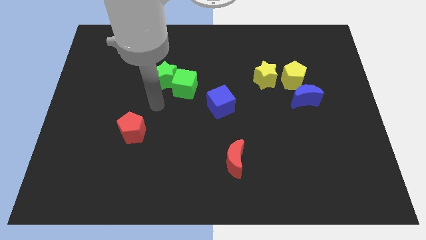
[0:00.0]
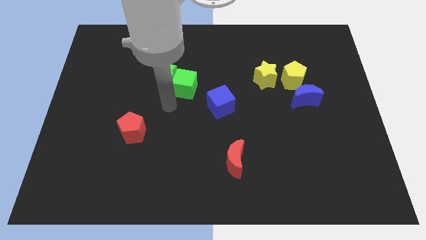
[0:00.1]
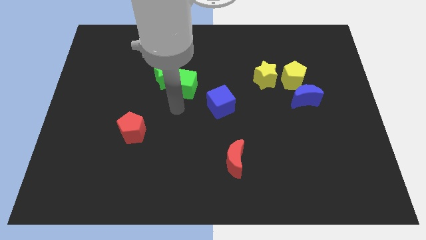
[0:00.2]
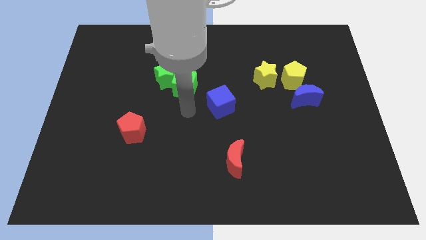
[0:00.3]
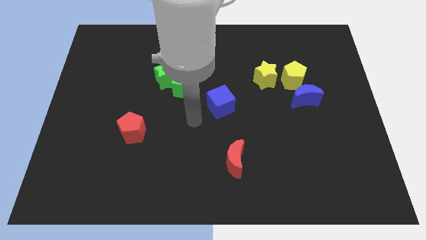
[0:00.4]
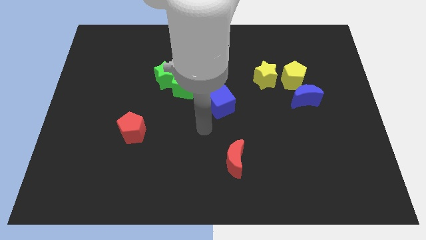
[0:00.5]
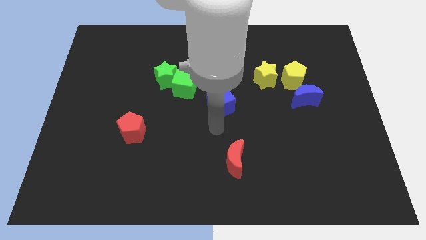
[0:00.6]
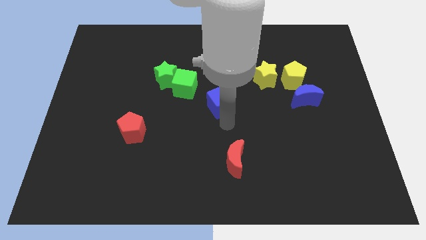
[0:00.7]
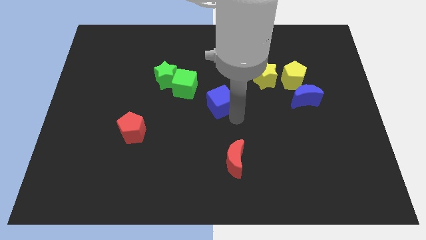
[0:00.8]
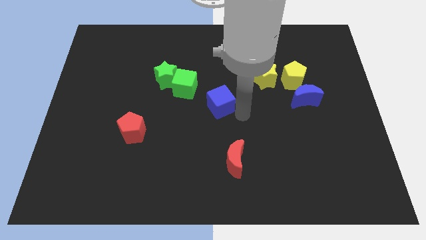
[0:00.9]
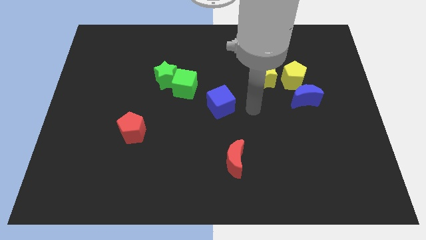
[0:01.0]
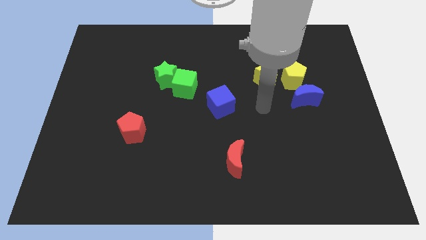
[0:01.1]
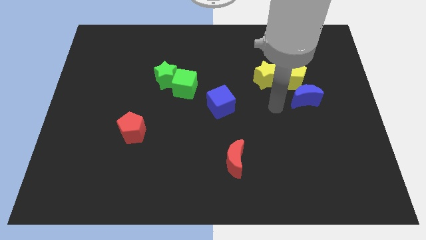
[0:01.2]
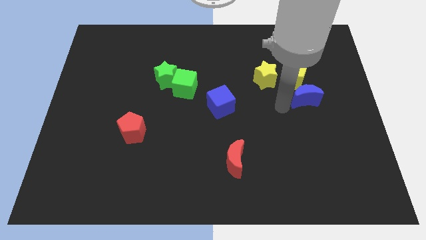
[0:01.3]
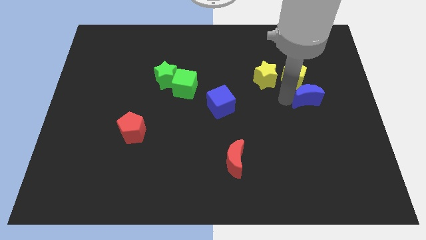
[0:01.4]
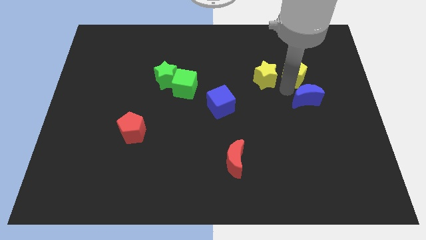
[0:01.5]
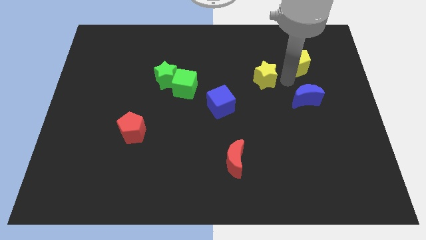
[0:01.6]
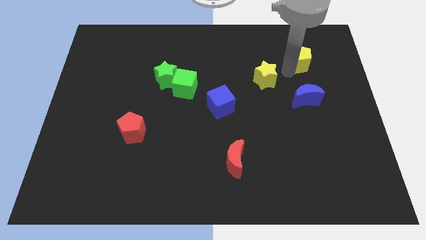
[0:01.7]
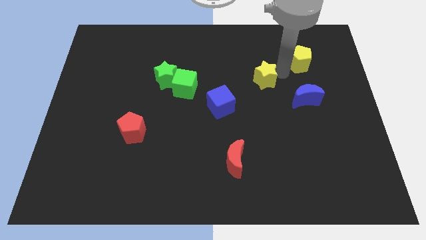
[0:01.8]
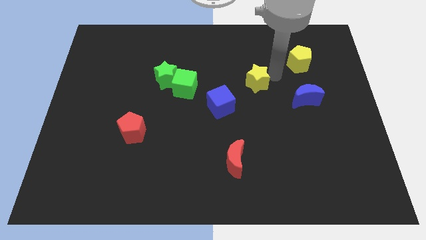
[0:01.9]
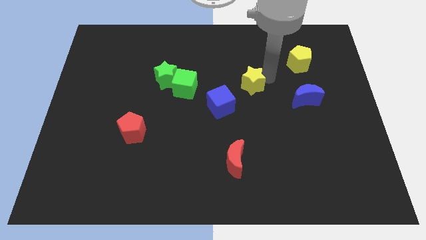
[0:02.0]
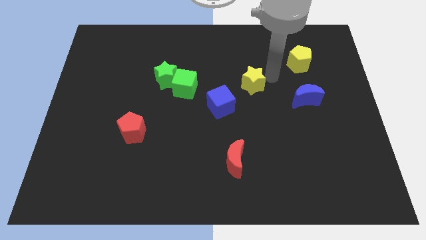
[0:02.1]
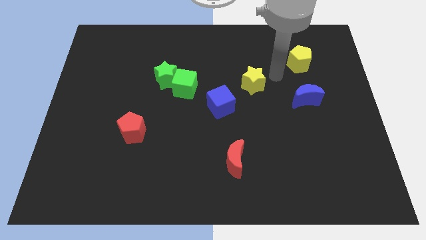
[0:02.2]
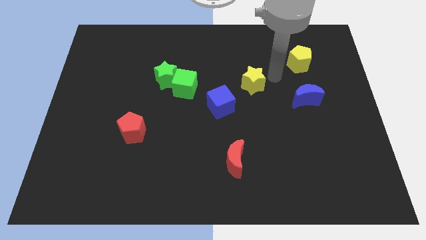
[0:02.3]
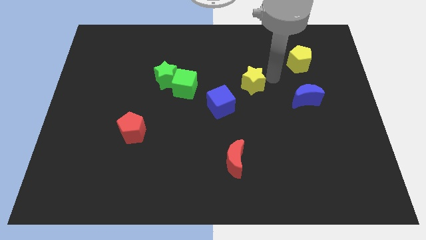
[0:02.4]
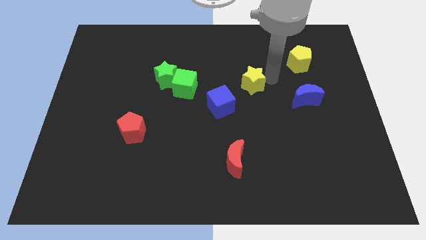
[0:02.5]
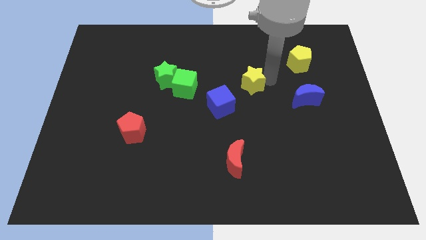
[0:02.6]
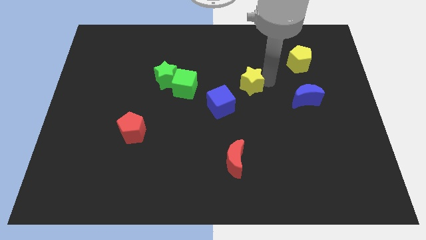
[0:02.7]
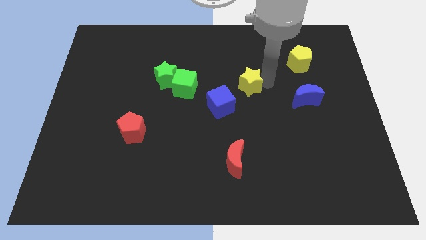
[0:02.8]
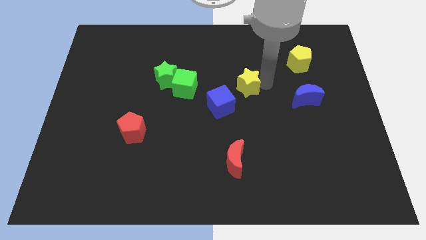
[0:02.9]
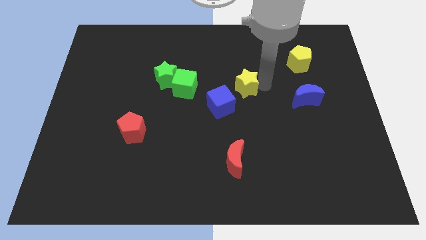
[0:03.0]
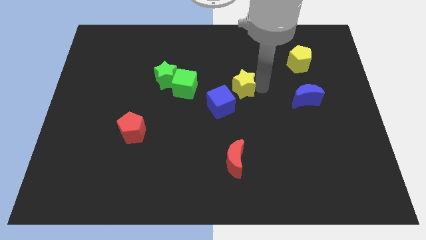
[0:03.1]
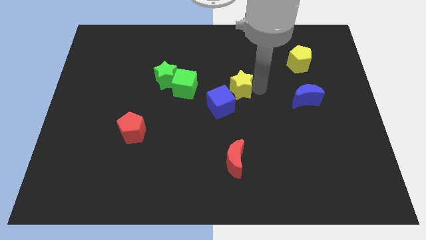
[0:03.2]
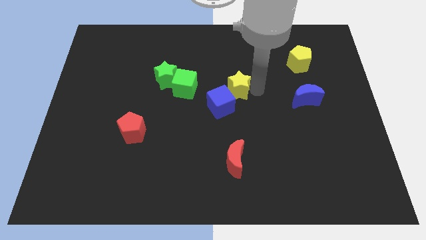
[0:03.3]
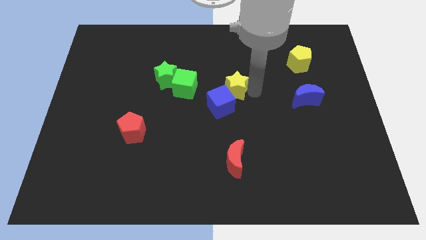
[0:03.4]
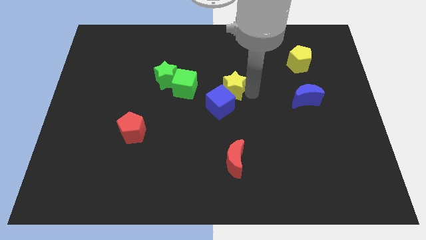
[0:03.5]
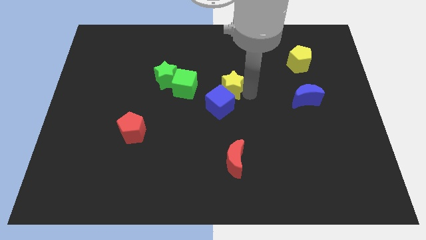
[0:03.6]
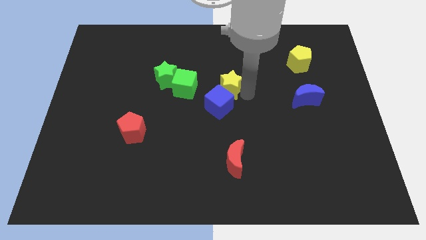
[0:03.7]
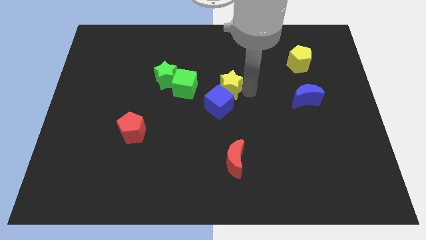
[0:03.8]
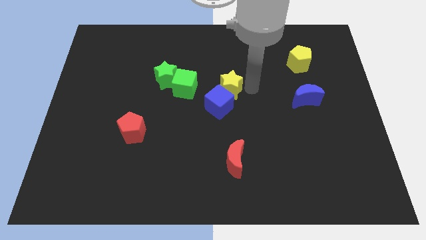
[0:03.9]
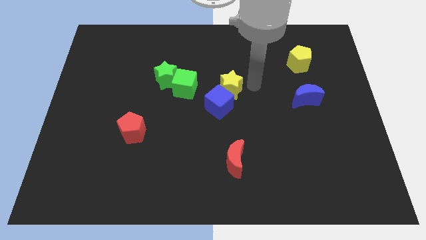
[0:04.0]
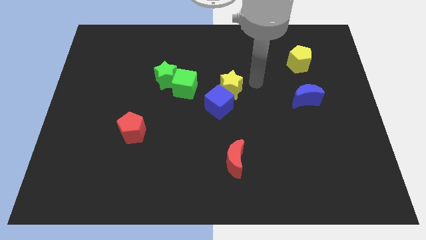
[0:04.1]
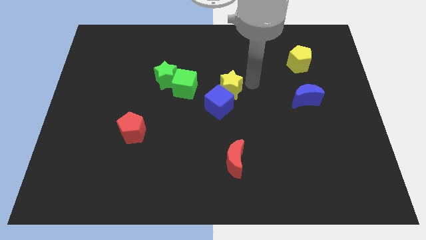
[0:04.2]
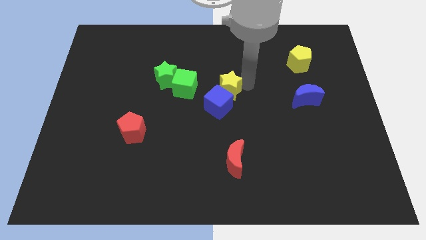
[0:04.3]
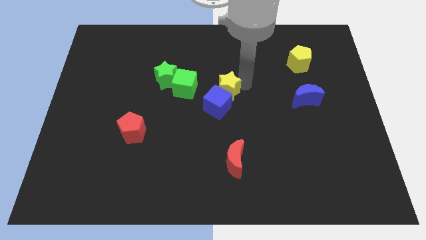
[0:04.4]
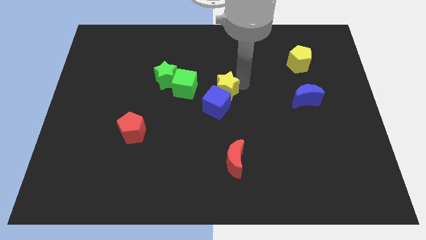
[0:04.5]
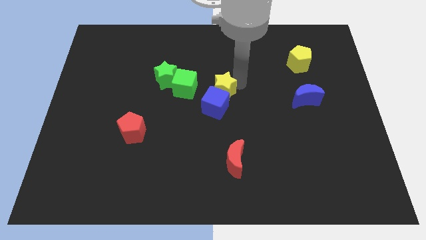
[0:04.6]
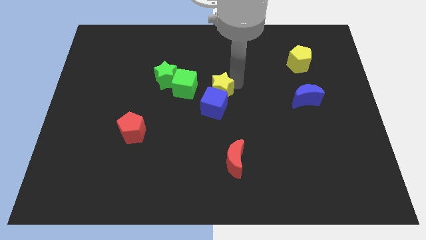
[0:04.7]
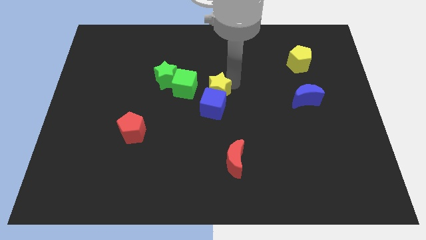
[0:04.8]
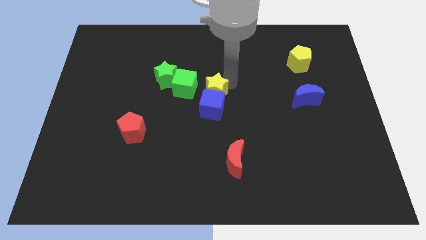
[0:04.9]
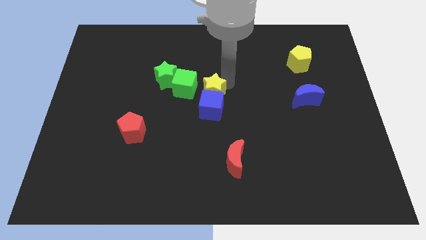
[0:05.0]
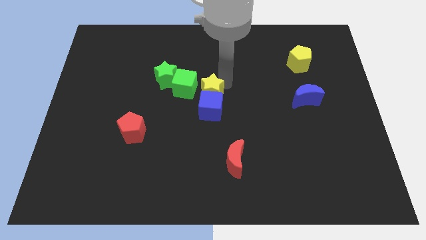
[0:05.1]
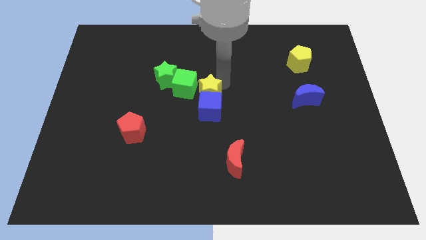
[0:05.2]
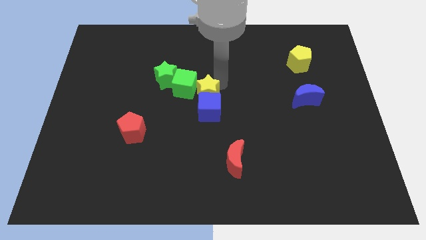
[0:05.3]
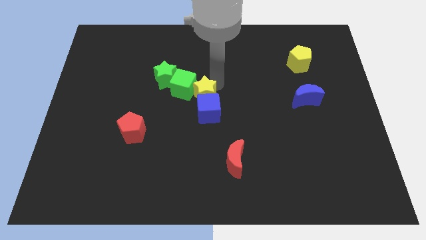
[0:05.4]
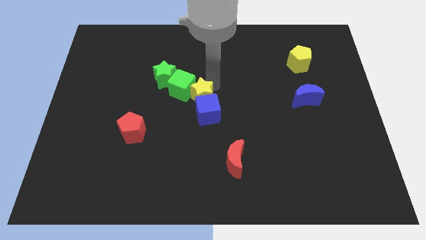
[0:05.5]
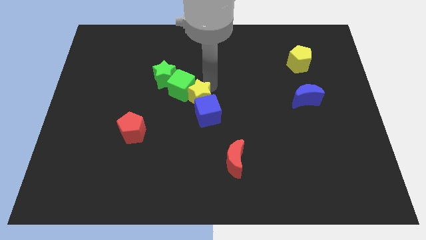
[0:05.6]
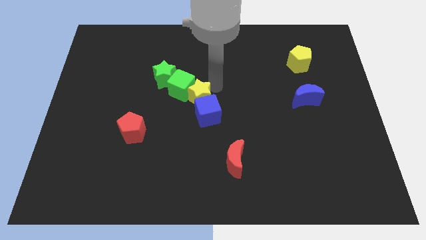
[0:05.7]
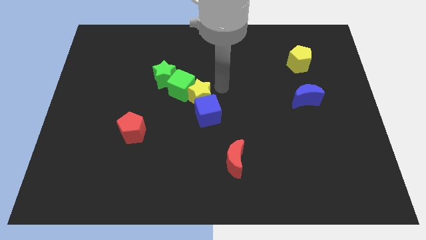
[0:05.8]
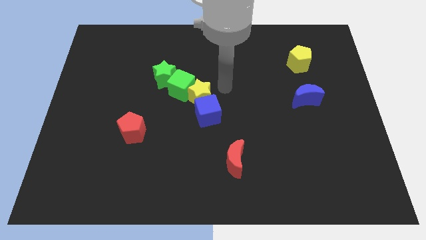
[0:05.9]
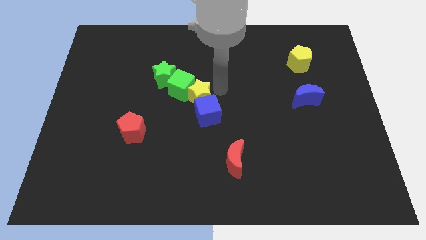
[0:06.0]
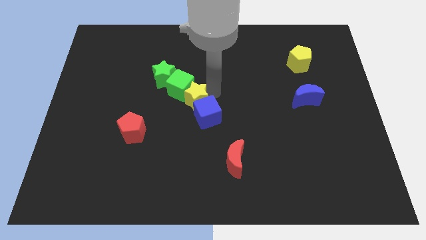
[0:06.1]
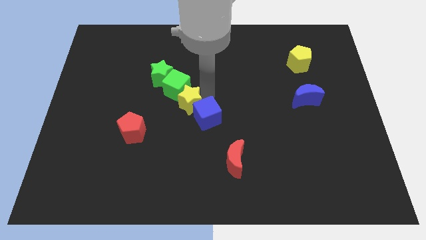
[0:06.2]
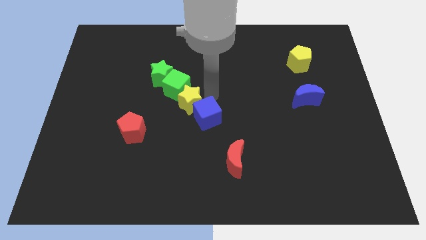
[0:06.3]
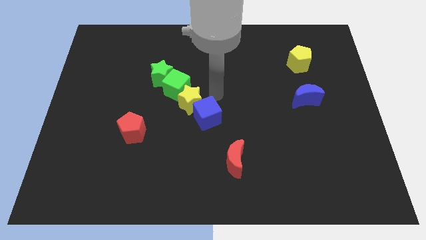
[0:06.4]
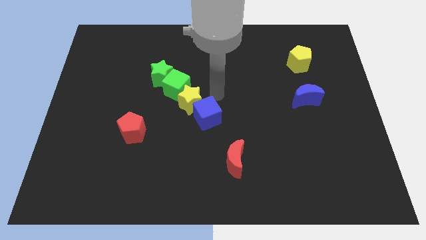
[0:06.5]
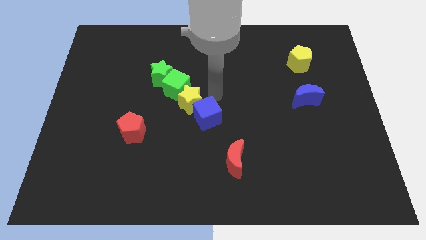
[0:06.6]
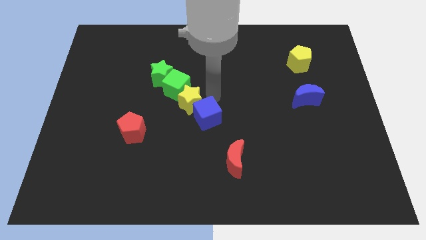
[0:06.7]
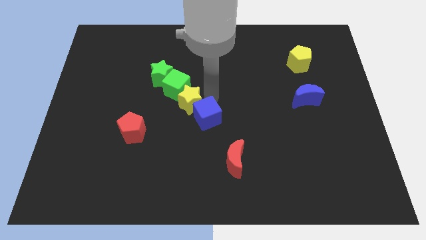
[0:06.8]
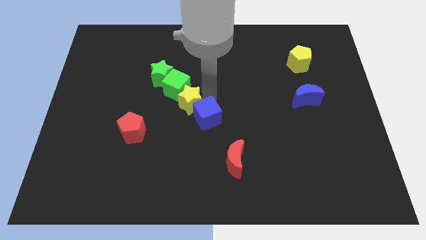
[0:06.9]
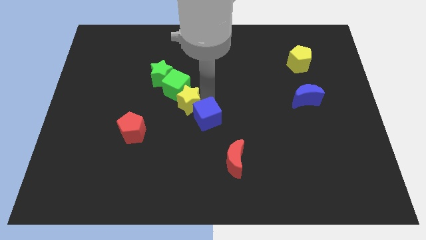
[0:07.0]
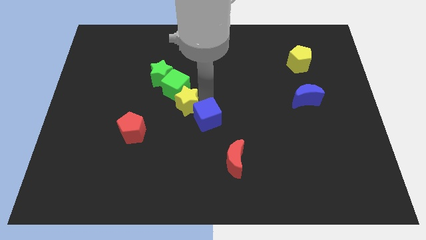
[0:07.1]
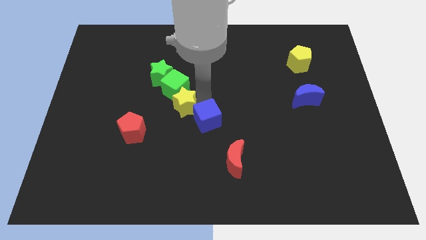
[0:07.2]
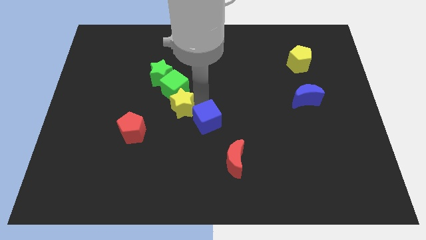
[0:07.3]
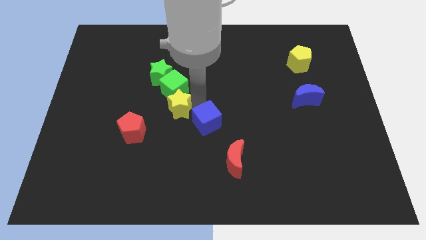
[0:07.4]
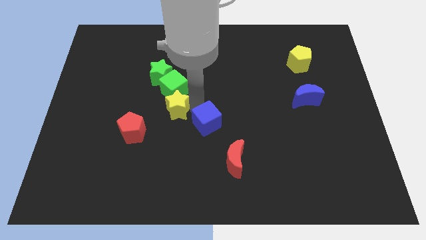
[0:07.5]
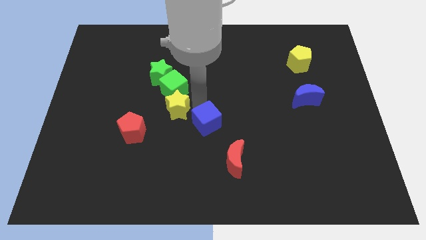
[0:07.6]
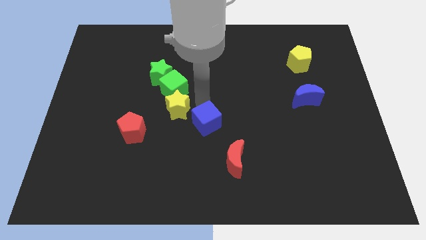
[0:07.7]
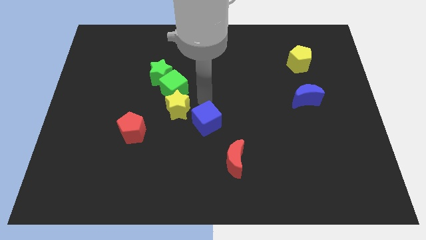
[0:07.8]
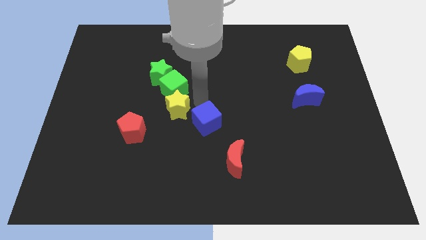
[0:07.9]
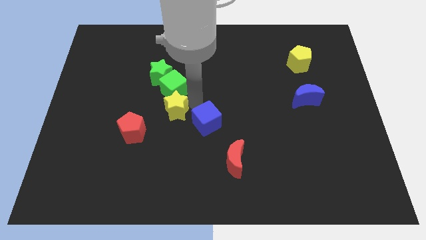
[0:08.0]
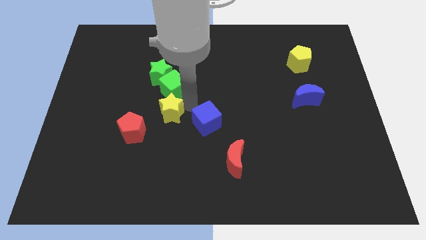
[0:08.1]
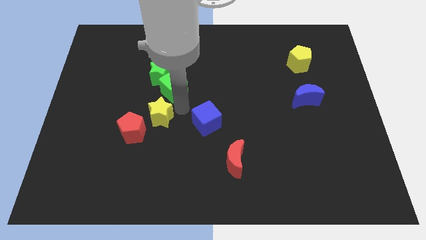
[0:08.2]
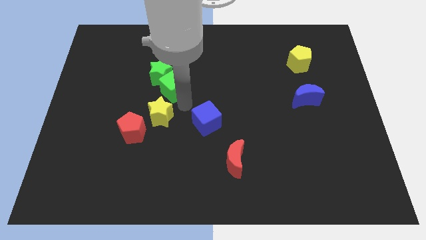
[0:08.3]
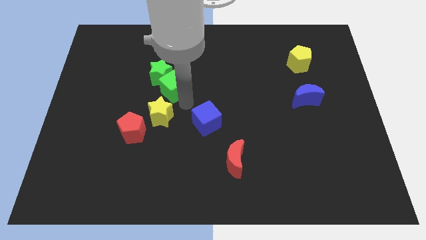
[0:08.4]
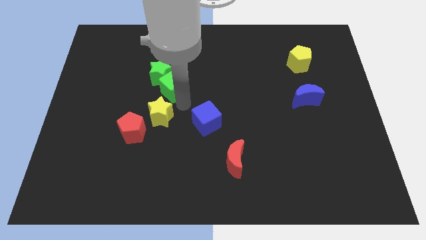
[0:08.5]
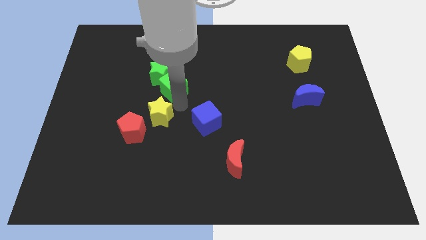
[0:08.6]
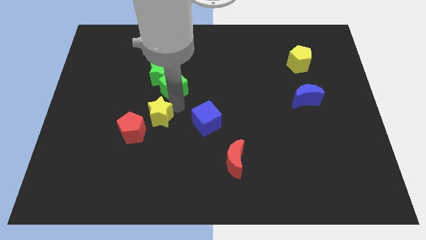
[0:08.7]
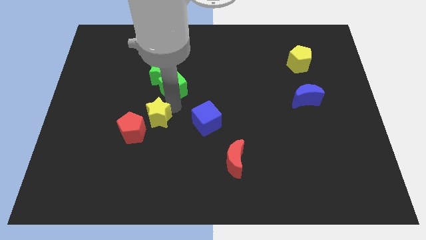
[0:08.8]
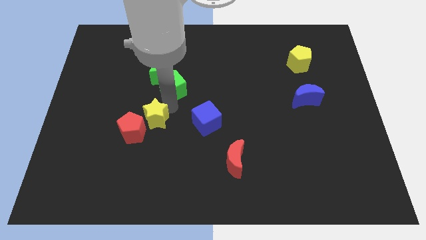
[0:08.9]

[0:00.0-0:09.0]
put the yellow star close to the red pentagon
